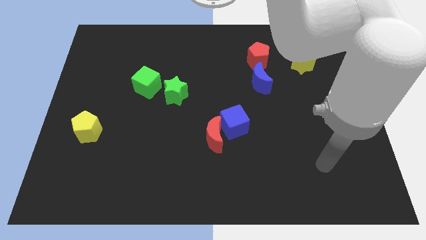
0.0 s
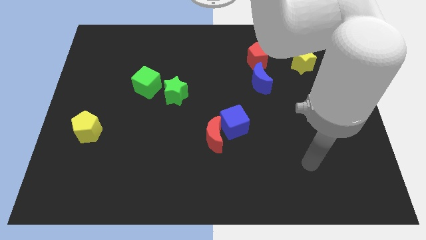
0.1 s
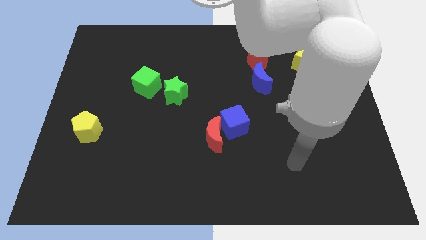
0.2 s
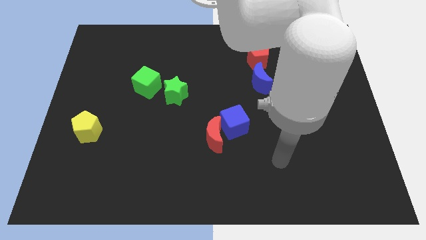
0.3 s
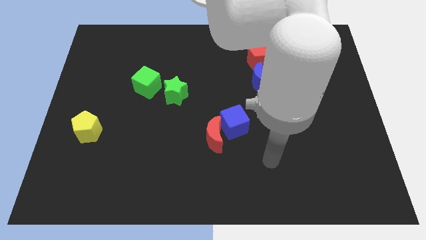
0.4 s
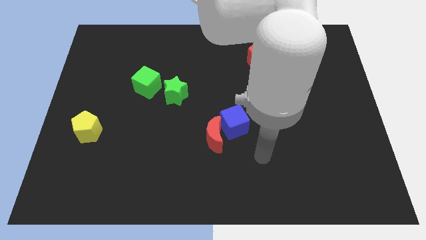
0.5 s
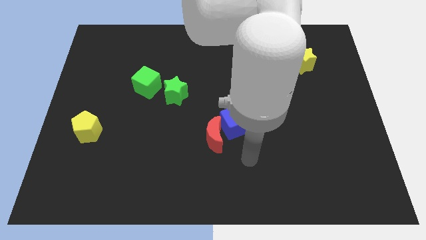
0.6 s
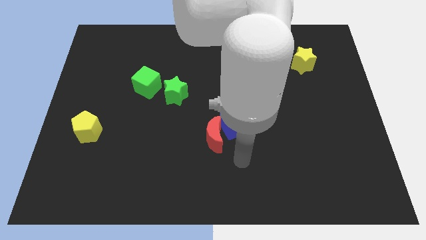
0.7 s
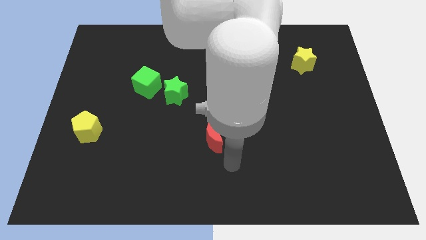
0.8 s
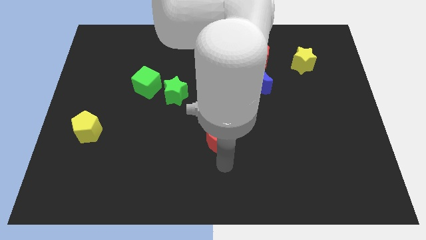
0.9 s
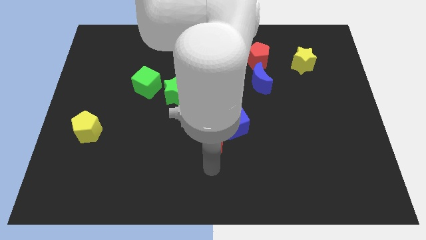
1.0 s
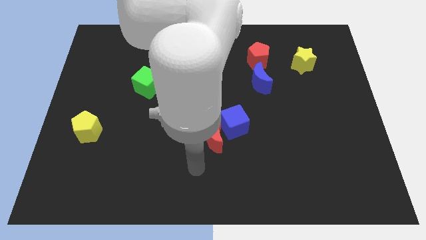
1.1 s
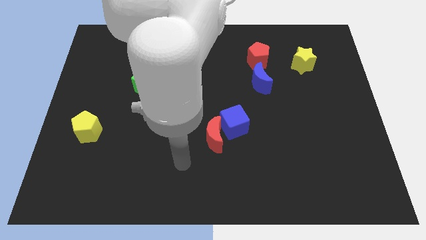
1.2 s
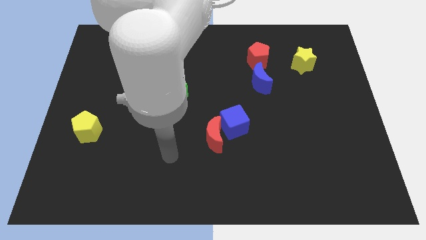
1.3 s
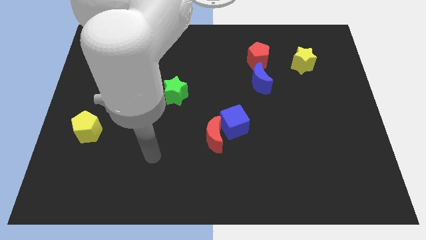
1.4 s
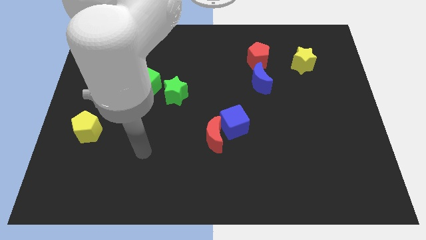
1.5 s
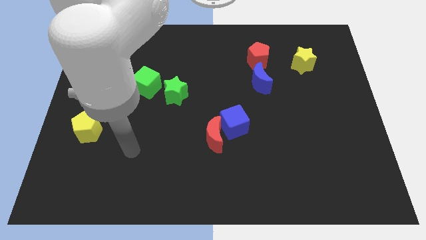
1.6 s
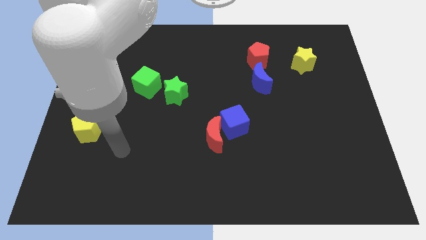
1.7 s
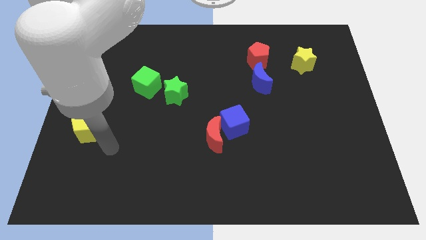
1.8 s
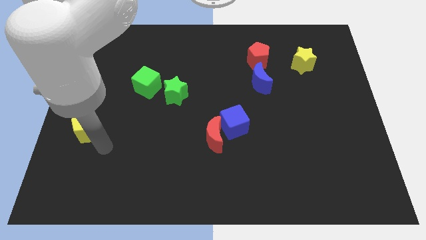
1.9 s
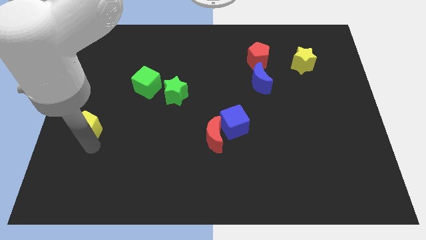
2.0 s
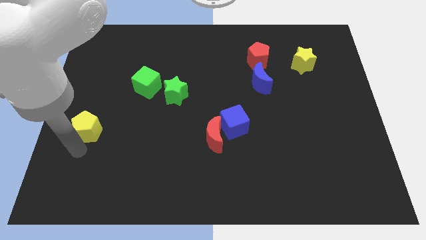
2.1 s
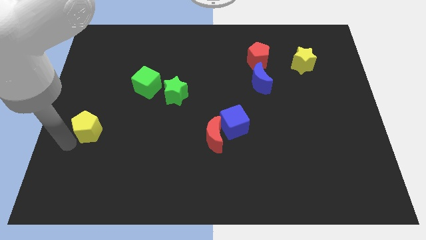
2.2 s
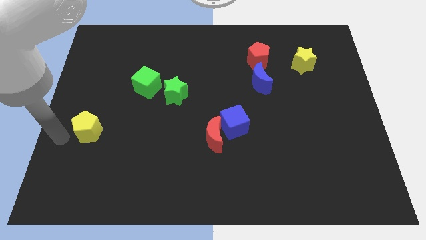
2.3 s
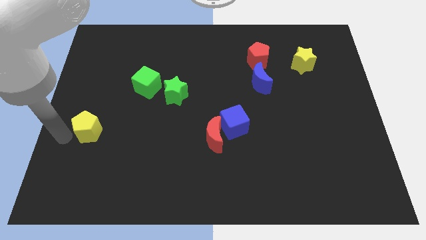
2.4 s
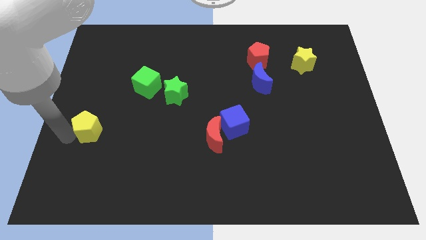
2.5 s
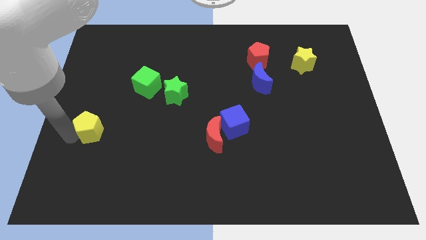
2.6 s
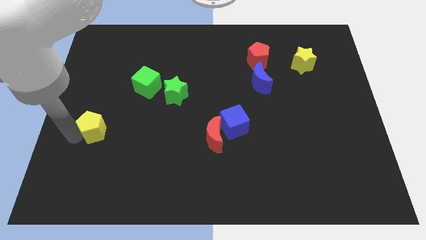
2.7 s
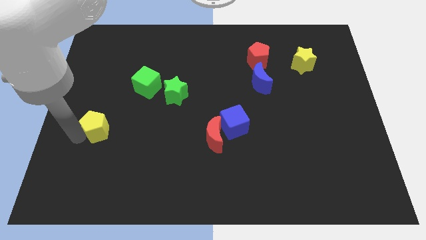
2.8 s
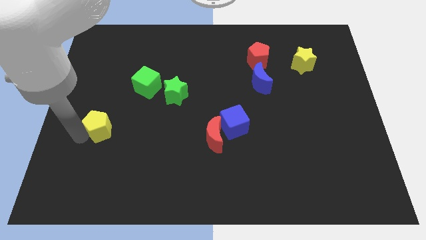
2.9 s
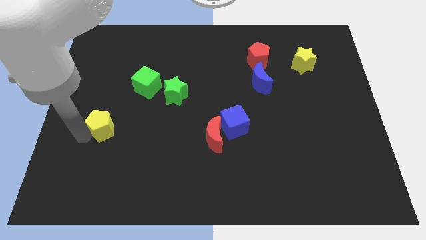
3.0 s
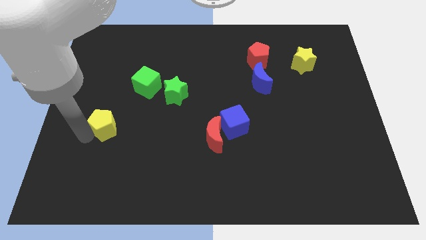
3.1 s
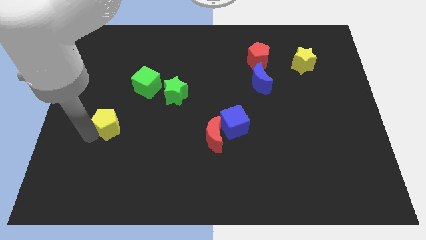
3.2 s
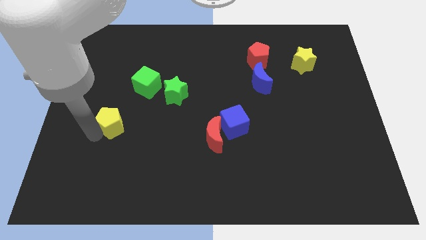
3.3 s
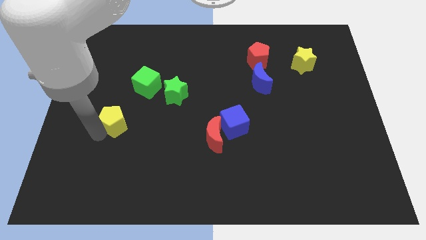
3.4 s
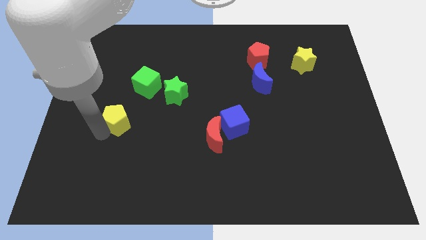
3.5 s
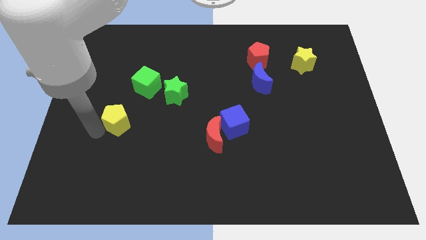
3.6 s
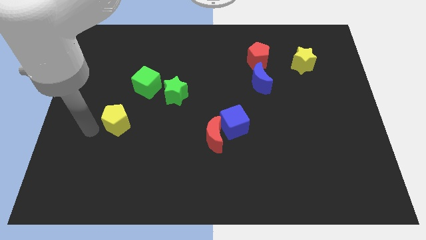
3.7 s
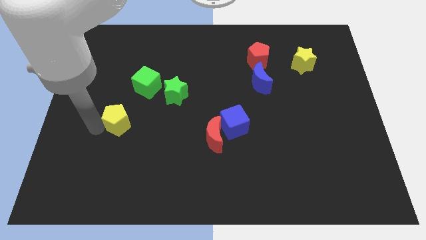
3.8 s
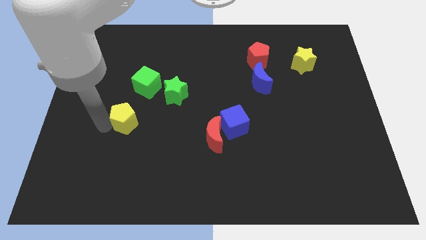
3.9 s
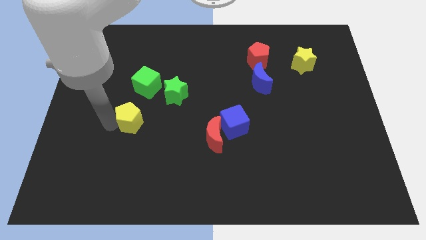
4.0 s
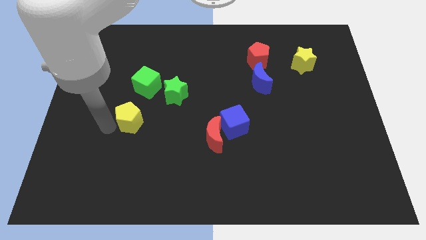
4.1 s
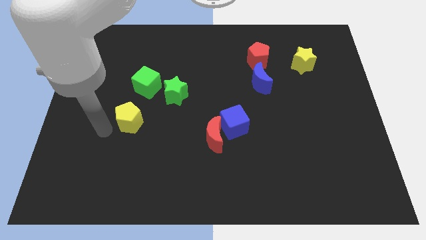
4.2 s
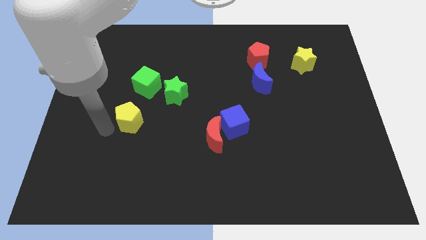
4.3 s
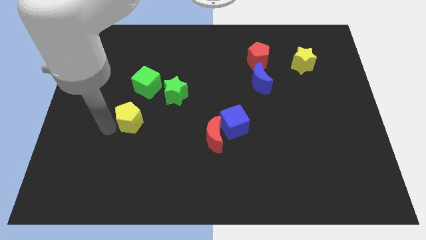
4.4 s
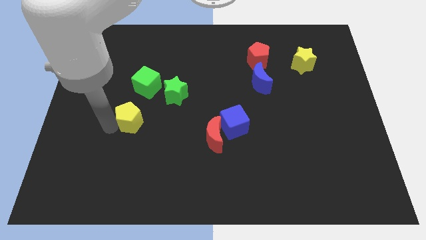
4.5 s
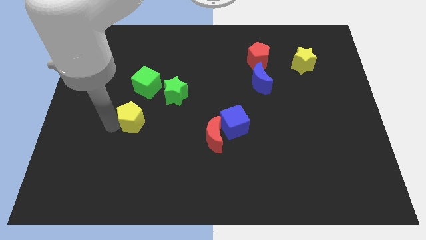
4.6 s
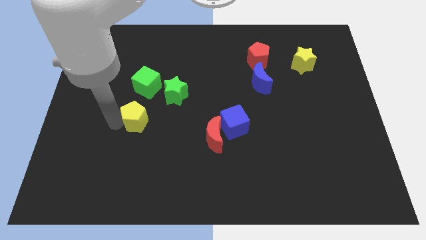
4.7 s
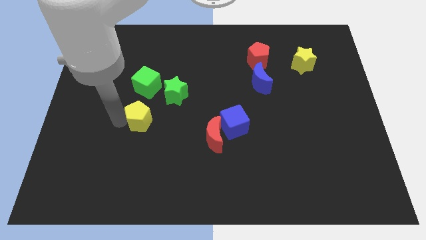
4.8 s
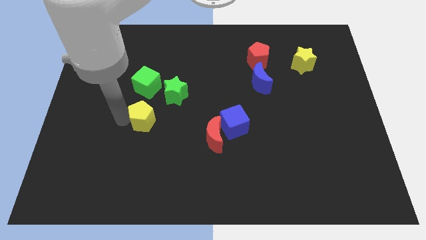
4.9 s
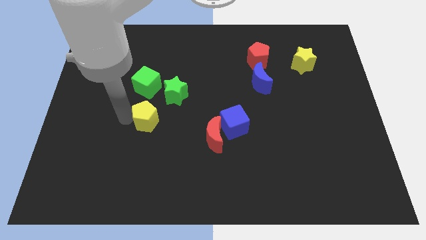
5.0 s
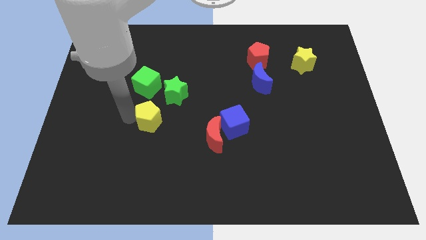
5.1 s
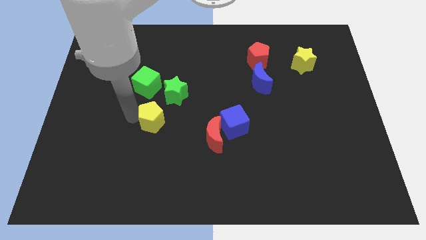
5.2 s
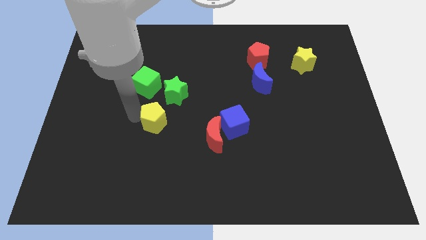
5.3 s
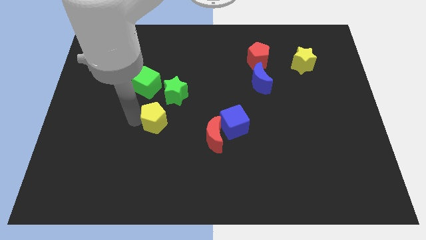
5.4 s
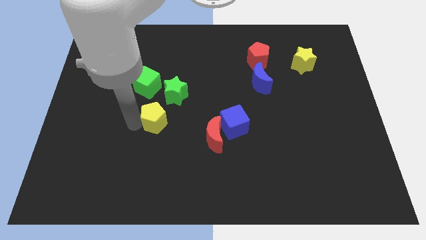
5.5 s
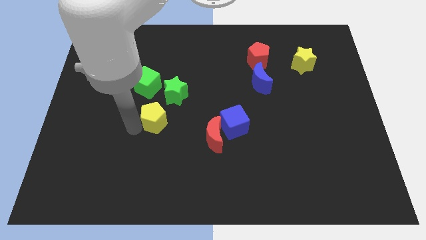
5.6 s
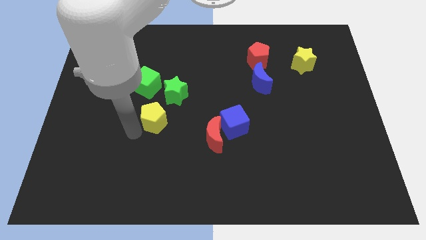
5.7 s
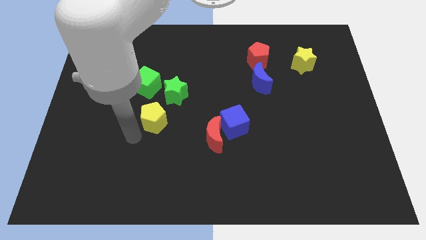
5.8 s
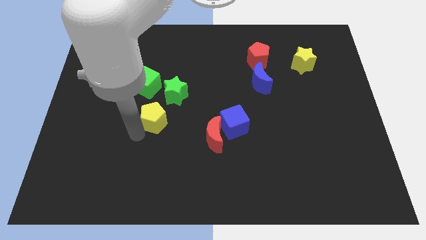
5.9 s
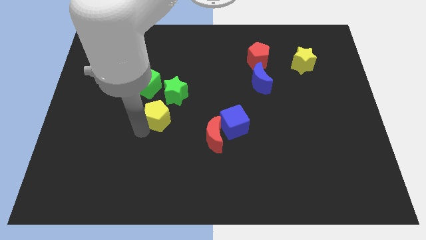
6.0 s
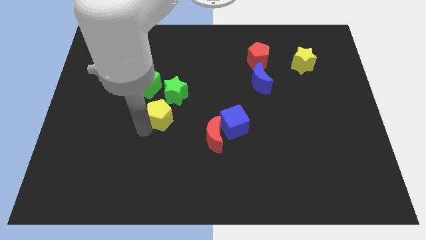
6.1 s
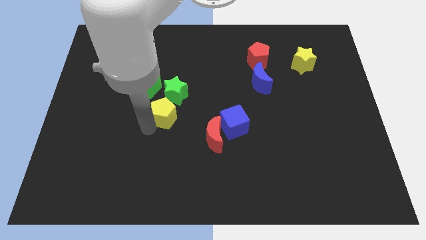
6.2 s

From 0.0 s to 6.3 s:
move the yellow pentagon to the middle of the board

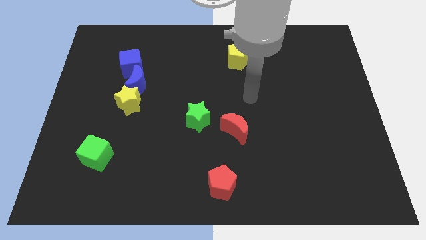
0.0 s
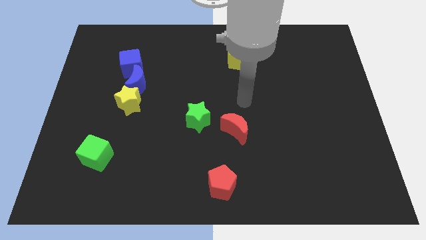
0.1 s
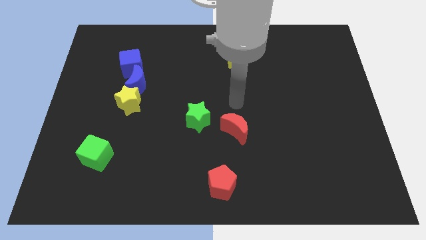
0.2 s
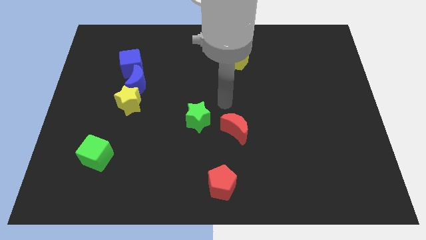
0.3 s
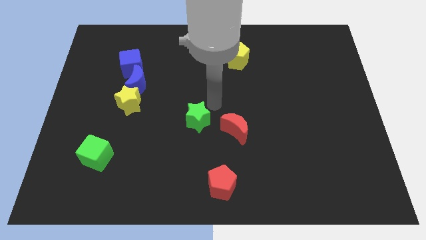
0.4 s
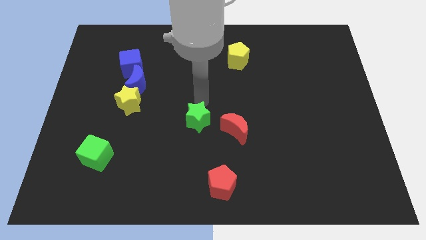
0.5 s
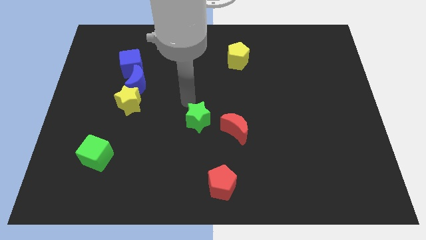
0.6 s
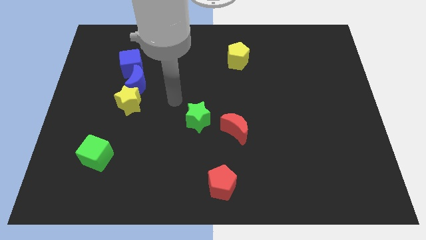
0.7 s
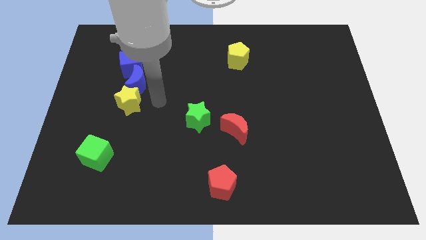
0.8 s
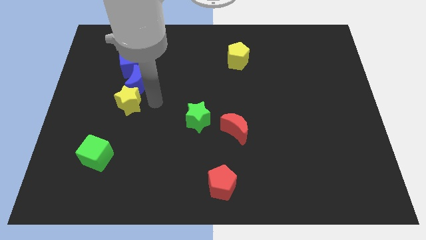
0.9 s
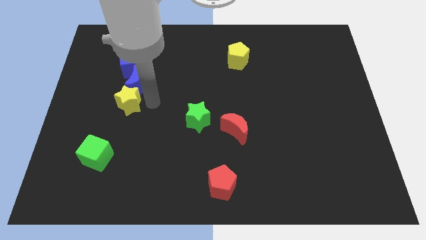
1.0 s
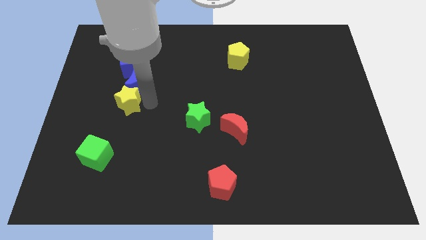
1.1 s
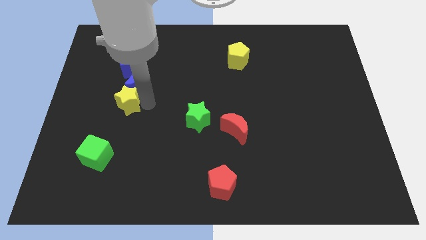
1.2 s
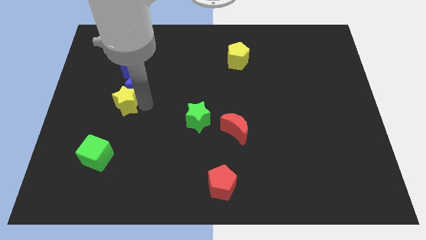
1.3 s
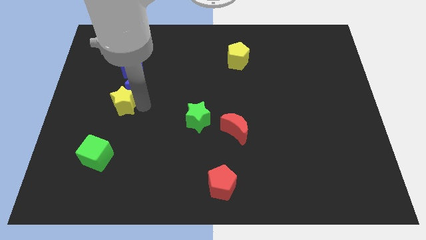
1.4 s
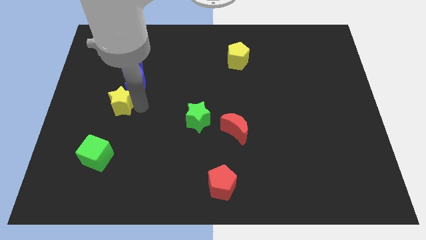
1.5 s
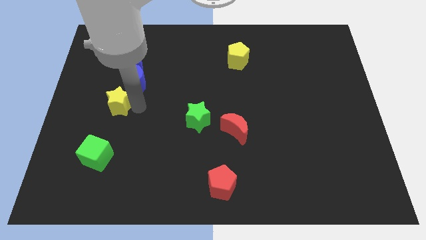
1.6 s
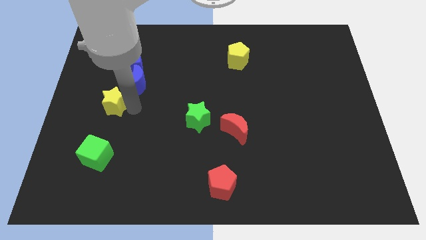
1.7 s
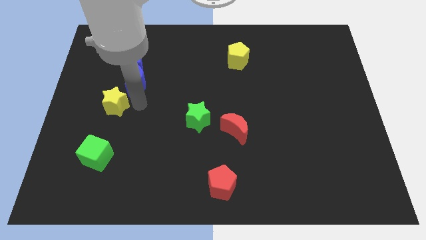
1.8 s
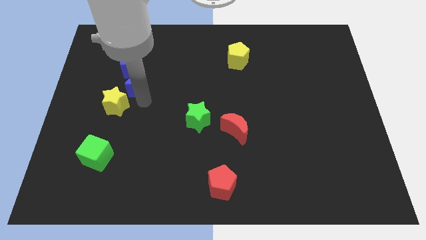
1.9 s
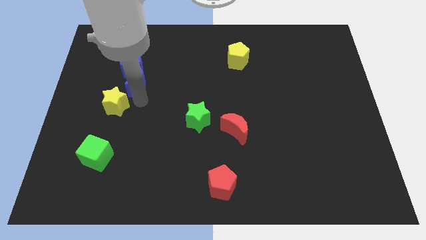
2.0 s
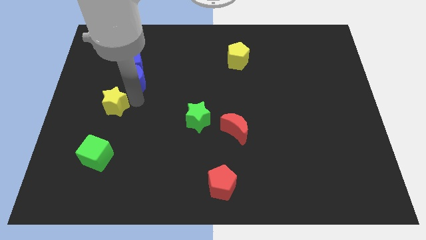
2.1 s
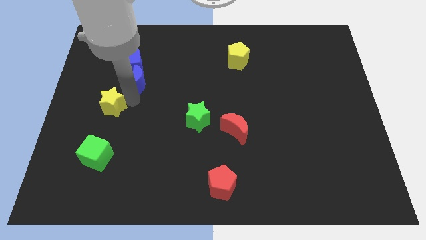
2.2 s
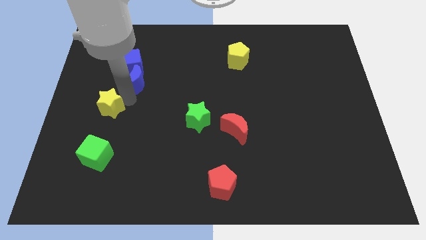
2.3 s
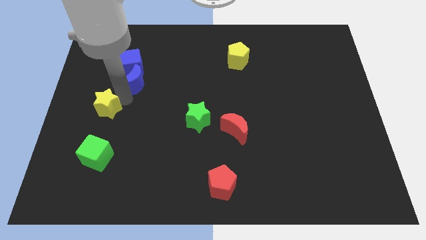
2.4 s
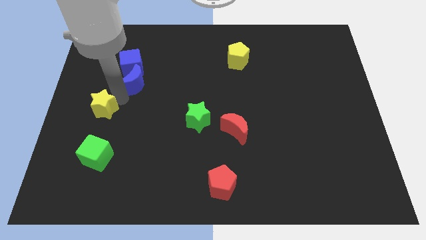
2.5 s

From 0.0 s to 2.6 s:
move the yellow star to the left side of the board
